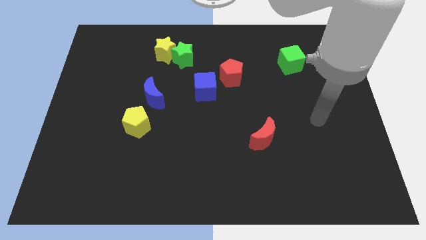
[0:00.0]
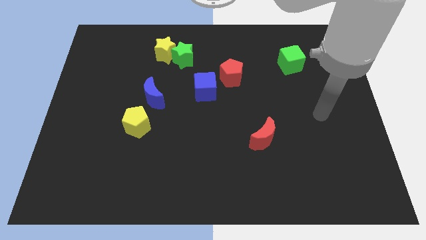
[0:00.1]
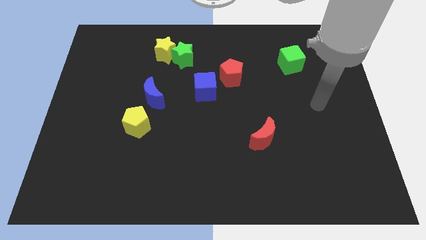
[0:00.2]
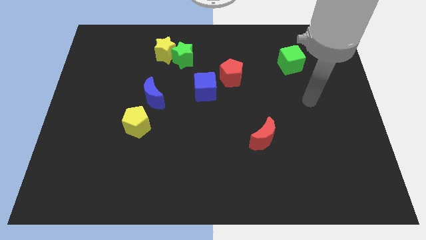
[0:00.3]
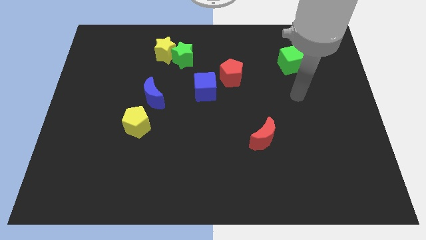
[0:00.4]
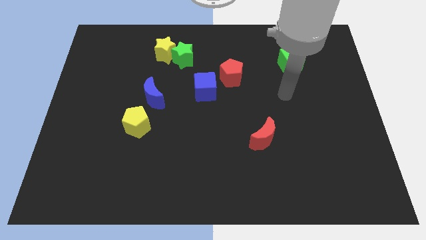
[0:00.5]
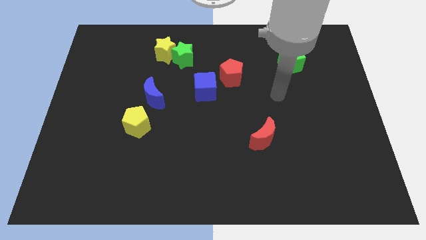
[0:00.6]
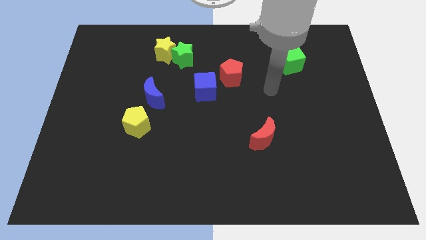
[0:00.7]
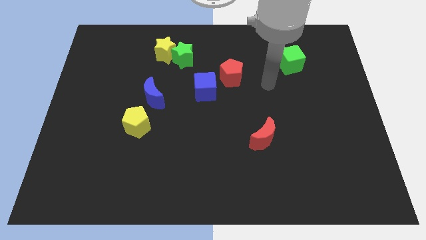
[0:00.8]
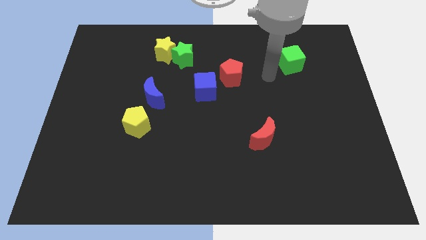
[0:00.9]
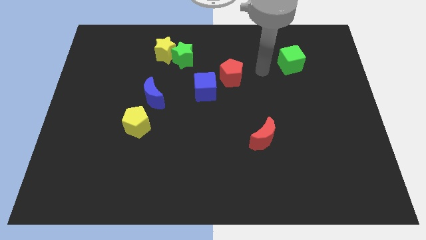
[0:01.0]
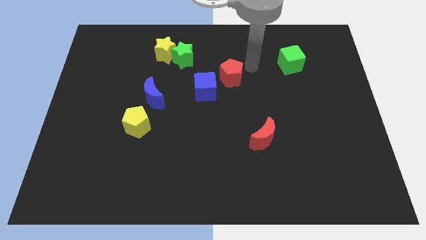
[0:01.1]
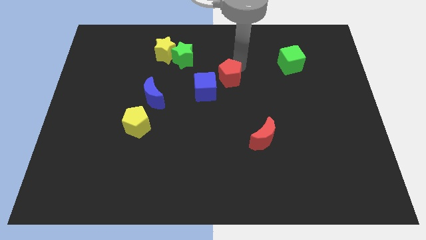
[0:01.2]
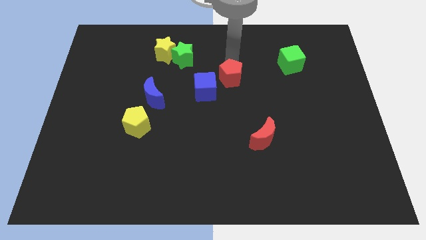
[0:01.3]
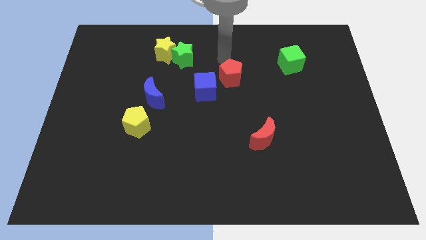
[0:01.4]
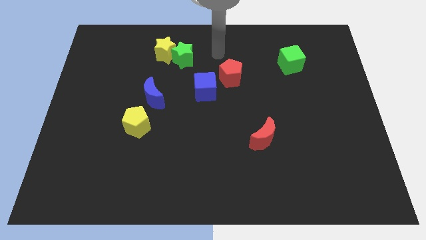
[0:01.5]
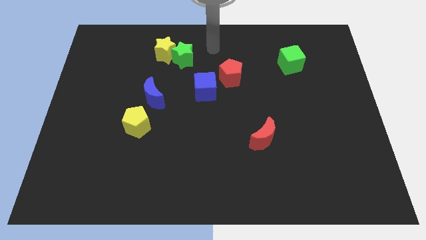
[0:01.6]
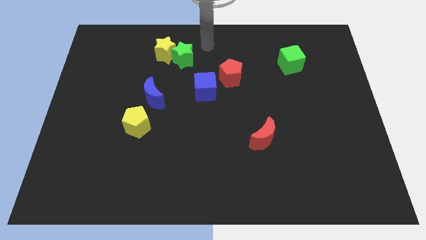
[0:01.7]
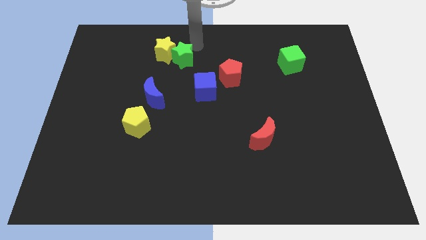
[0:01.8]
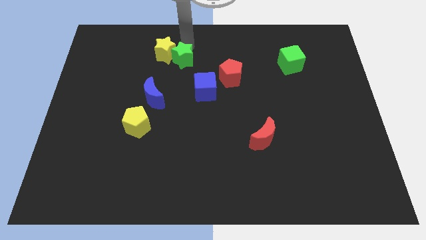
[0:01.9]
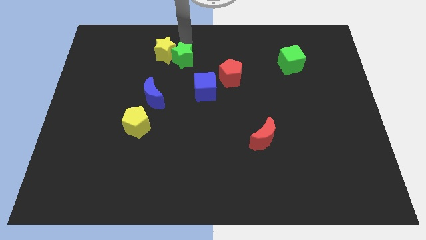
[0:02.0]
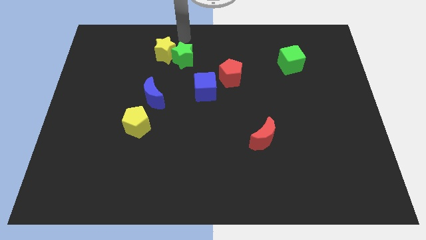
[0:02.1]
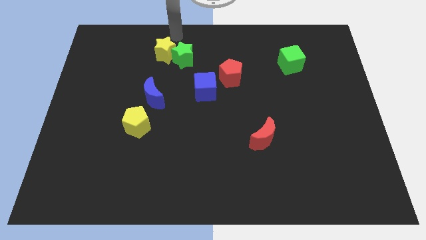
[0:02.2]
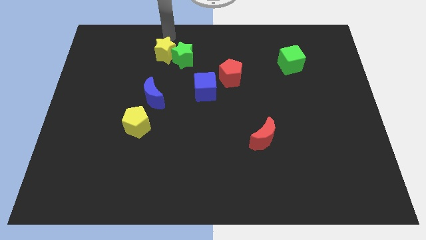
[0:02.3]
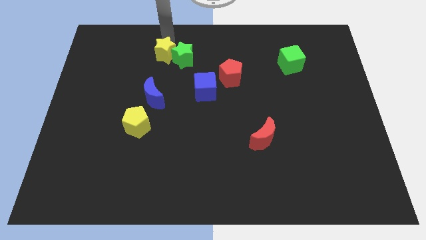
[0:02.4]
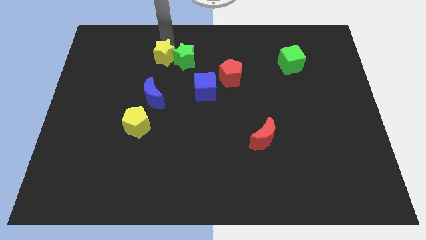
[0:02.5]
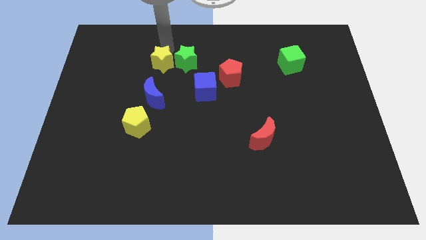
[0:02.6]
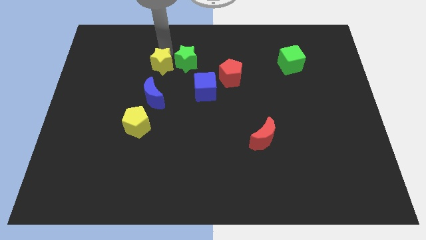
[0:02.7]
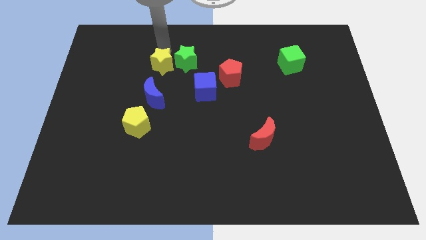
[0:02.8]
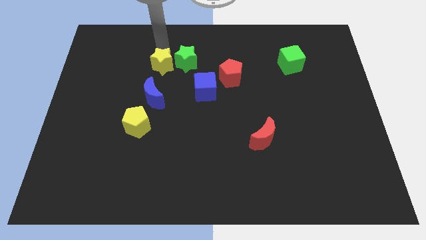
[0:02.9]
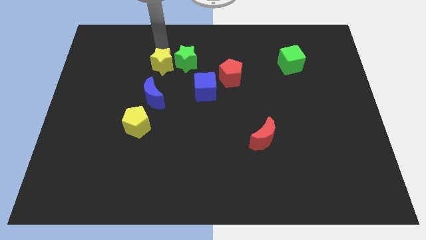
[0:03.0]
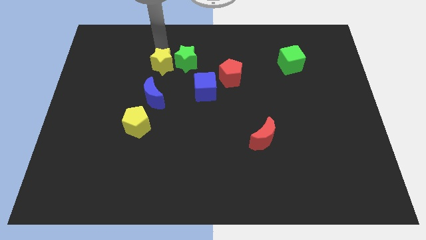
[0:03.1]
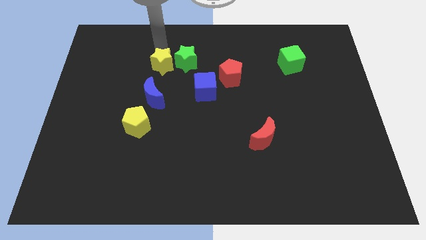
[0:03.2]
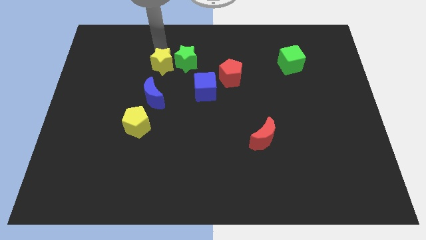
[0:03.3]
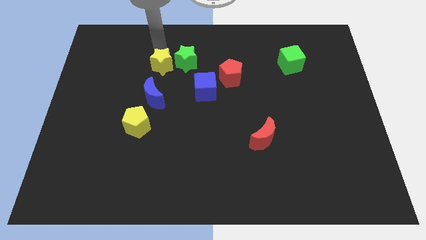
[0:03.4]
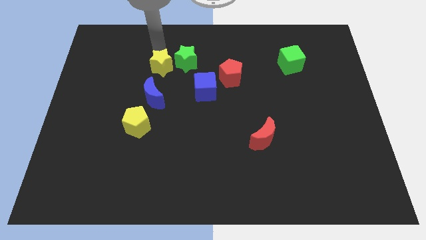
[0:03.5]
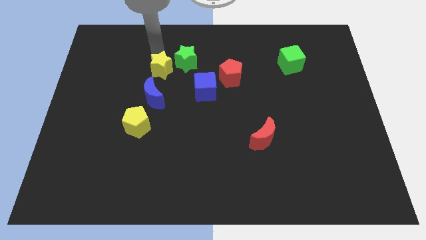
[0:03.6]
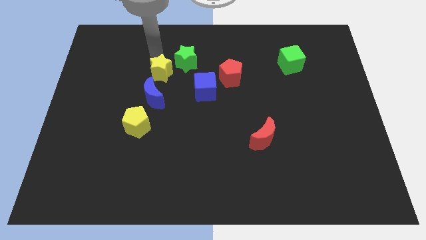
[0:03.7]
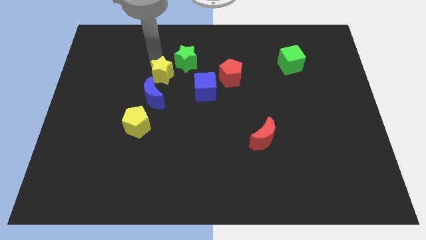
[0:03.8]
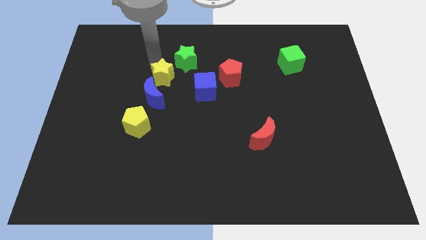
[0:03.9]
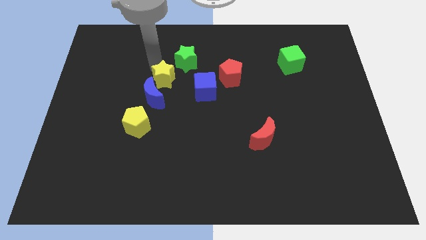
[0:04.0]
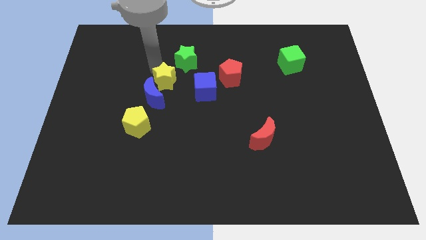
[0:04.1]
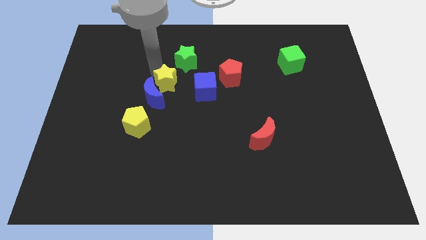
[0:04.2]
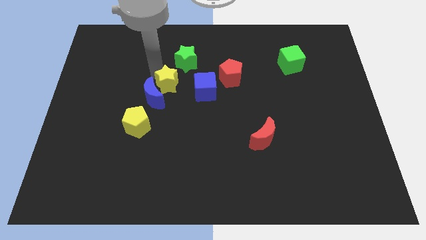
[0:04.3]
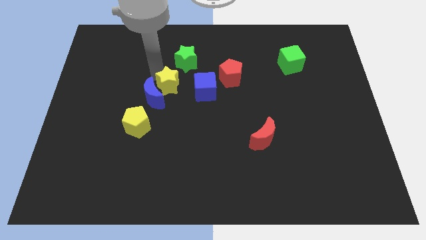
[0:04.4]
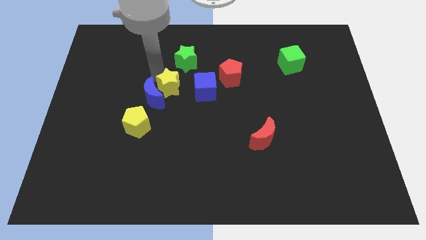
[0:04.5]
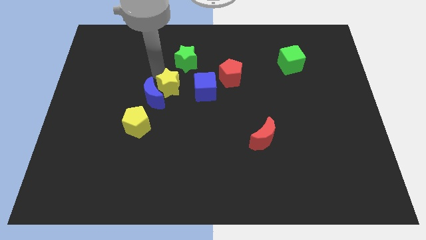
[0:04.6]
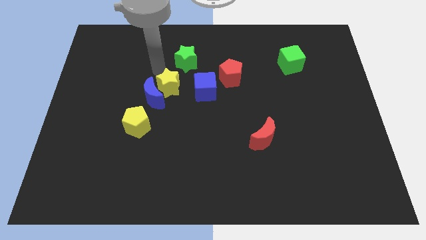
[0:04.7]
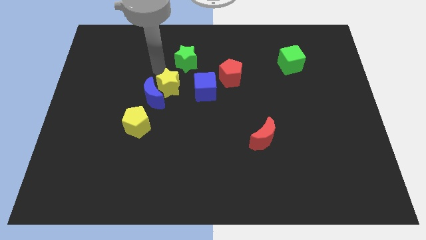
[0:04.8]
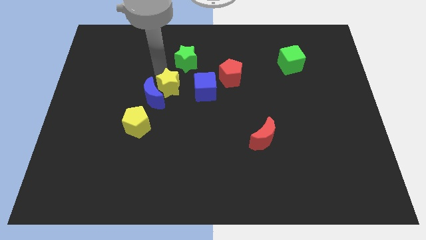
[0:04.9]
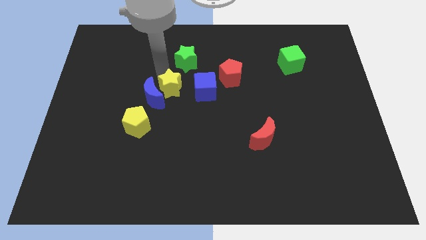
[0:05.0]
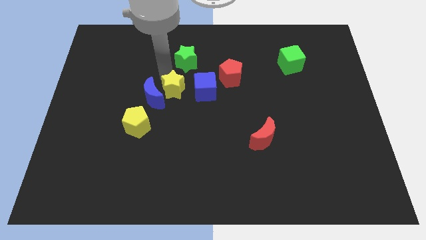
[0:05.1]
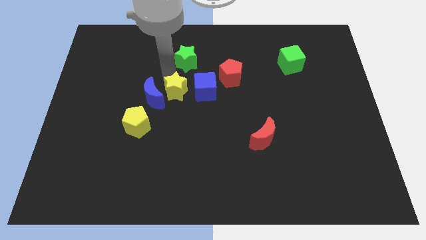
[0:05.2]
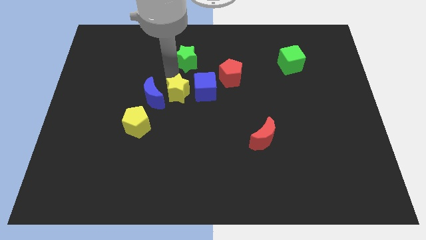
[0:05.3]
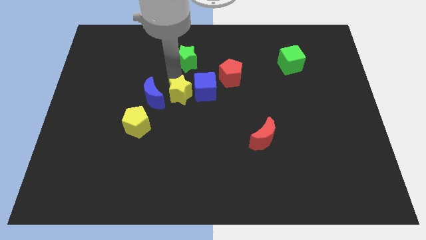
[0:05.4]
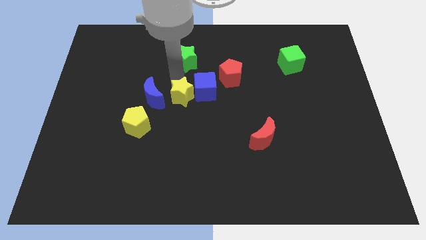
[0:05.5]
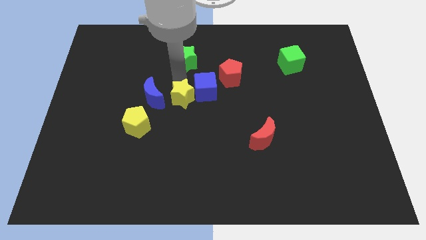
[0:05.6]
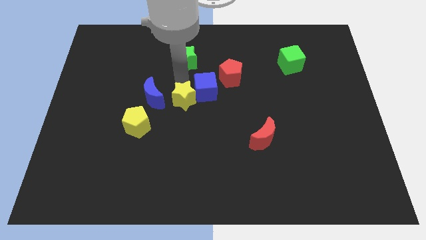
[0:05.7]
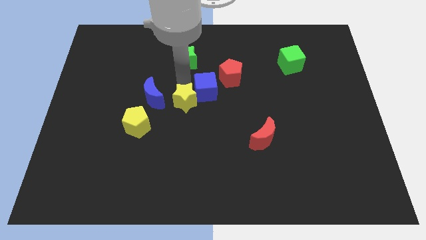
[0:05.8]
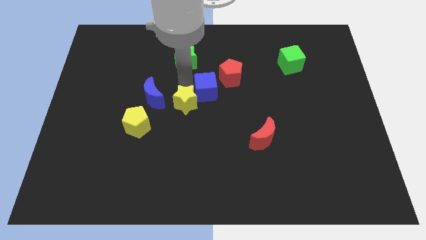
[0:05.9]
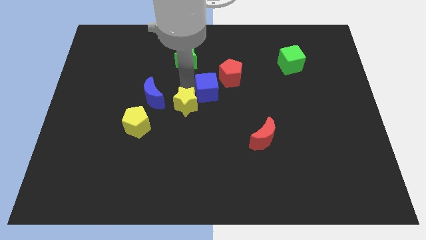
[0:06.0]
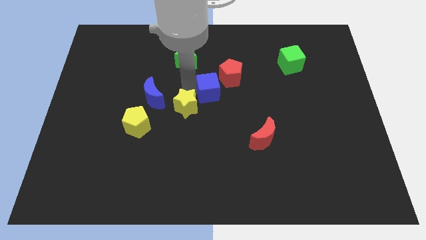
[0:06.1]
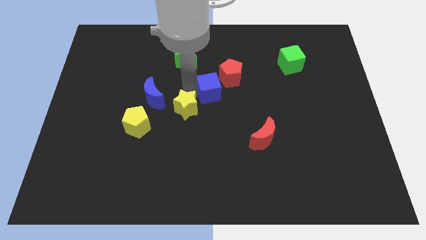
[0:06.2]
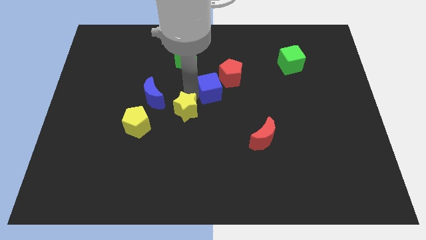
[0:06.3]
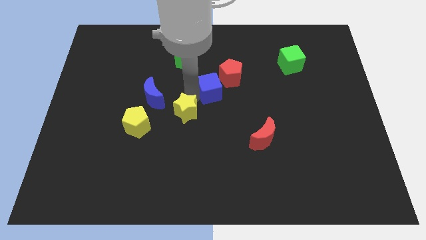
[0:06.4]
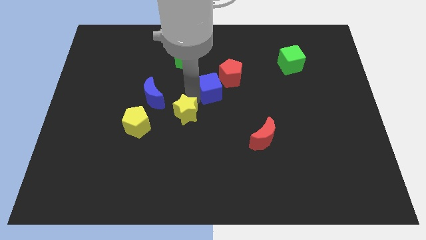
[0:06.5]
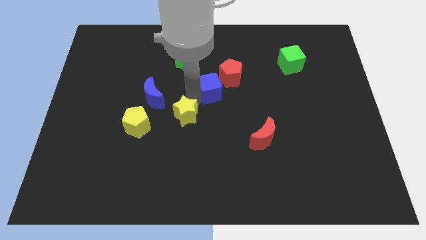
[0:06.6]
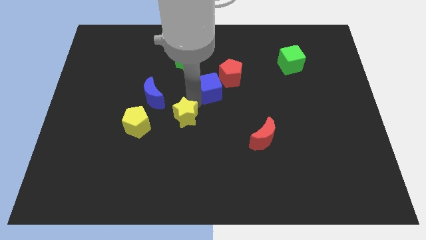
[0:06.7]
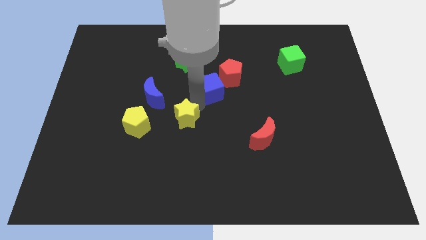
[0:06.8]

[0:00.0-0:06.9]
move the yellow star down

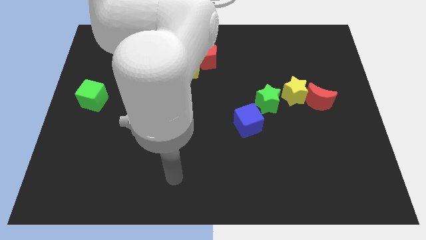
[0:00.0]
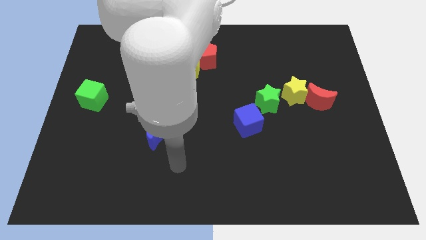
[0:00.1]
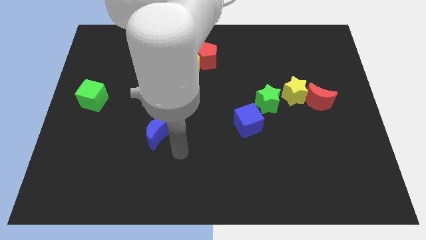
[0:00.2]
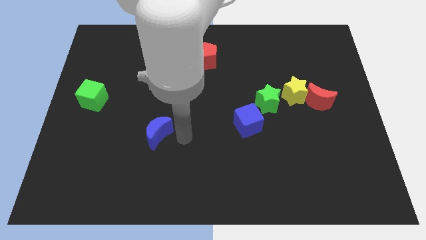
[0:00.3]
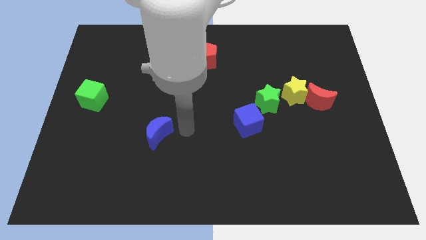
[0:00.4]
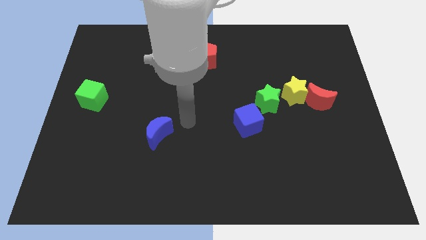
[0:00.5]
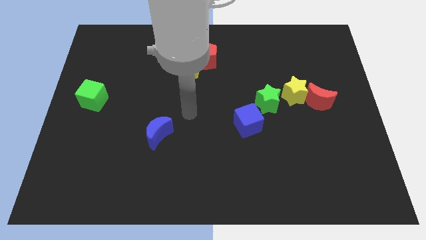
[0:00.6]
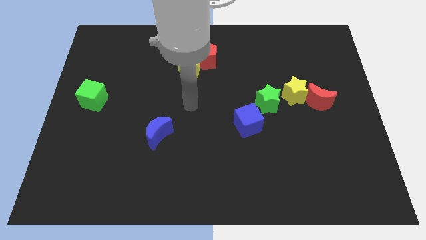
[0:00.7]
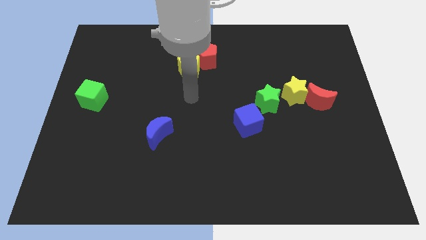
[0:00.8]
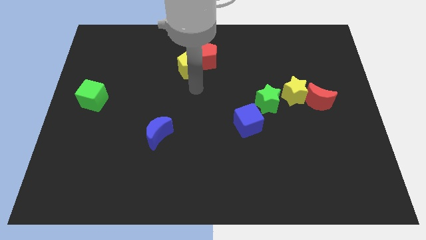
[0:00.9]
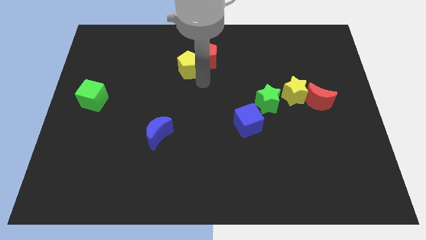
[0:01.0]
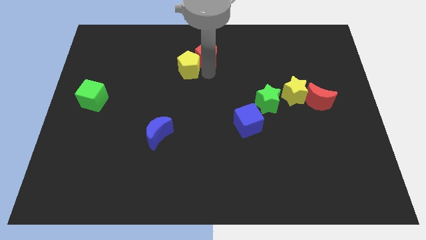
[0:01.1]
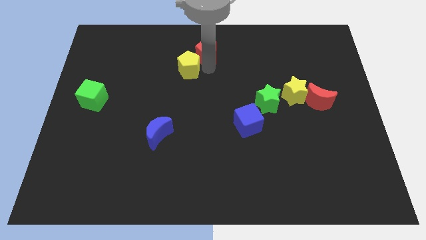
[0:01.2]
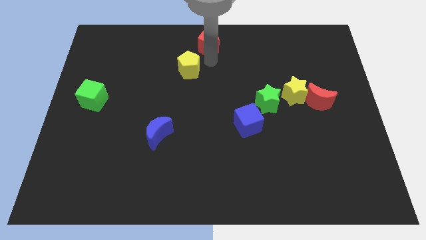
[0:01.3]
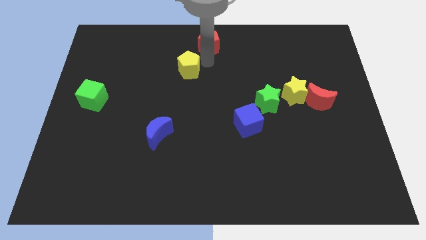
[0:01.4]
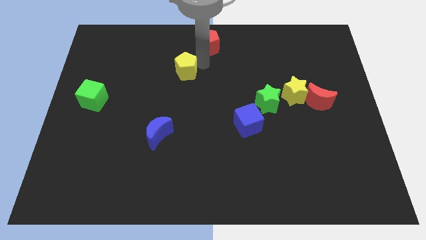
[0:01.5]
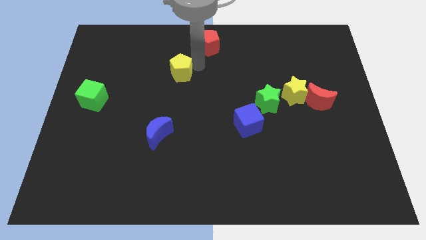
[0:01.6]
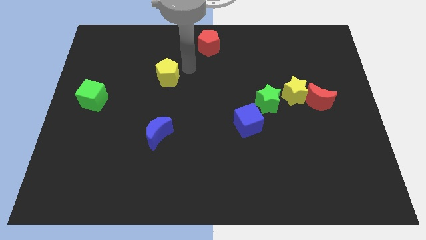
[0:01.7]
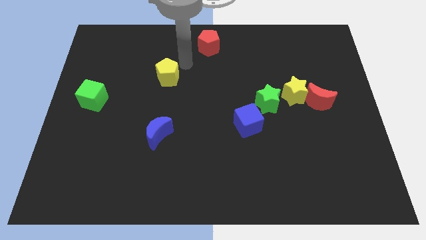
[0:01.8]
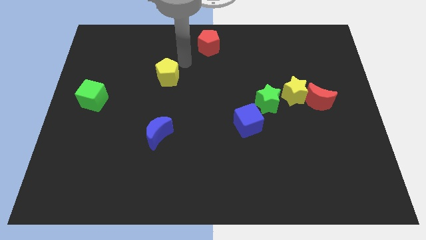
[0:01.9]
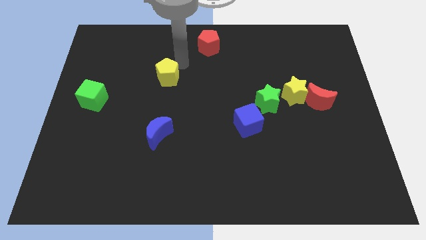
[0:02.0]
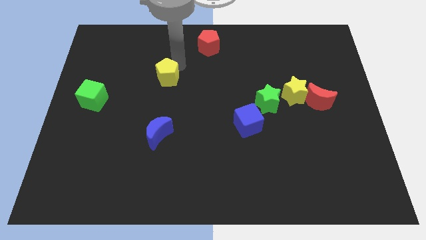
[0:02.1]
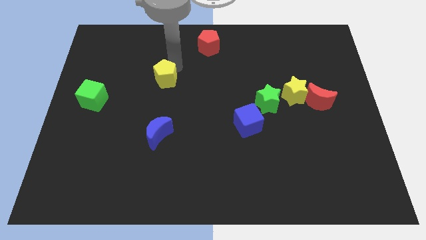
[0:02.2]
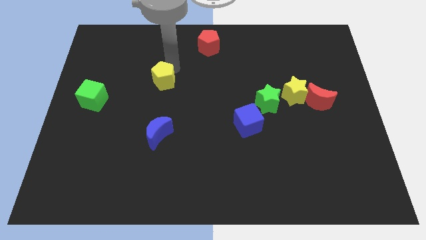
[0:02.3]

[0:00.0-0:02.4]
move the yellow pentagon diagonally down and to the left a bit
